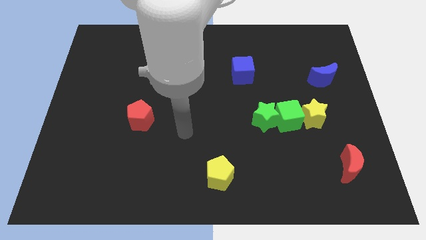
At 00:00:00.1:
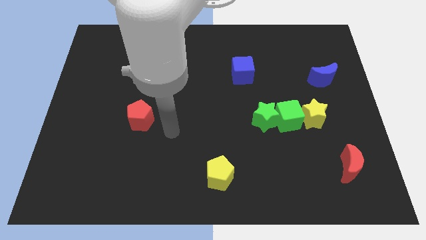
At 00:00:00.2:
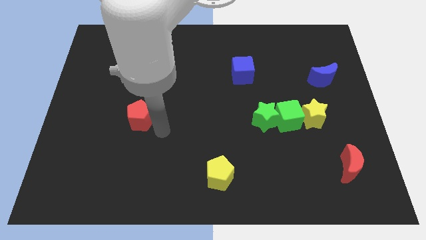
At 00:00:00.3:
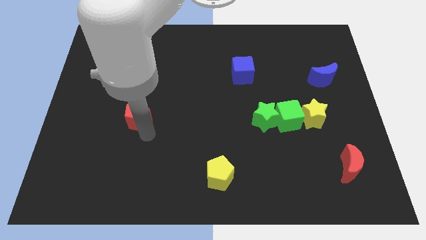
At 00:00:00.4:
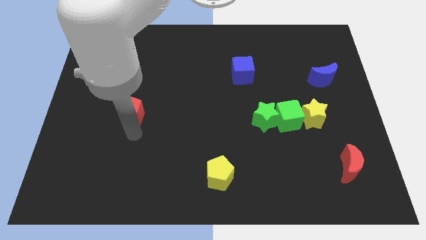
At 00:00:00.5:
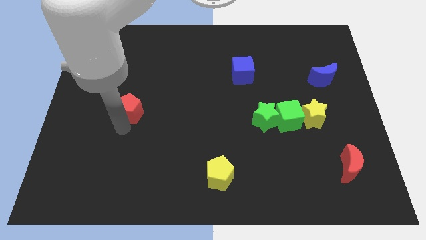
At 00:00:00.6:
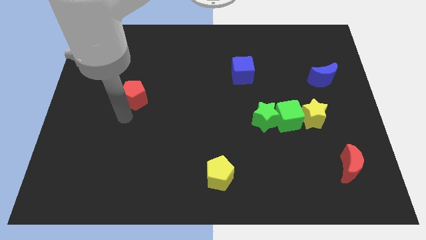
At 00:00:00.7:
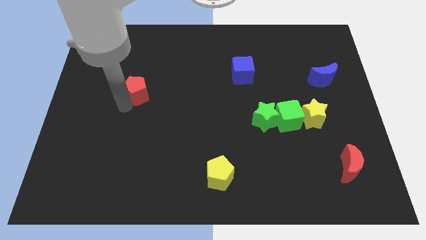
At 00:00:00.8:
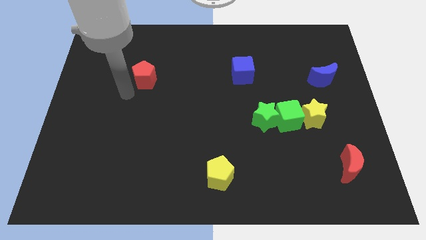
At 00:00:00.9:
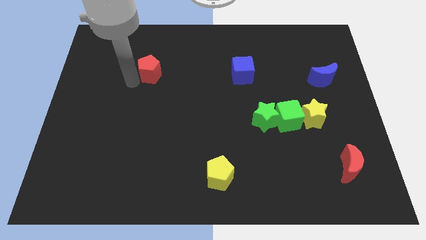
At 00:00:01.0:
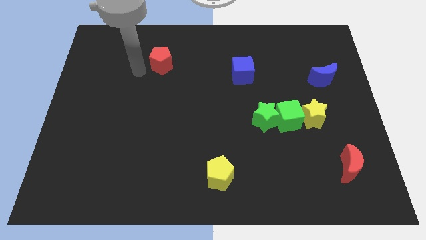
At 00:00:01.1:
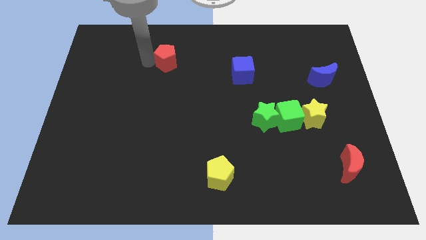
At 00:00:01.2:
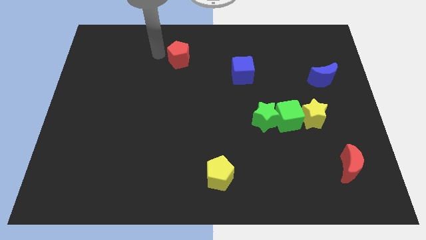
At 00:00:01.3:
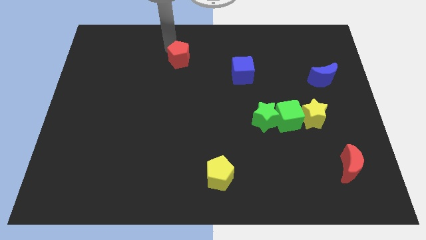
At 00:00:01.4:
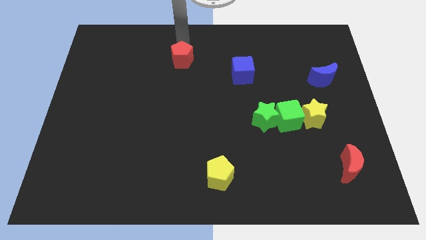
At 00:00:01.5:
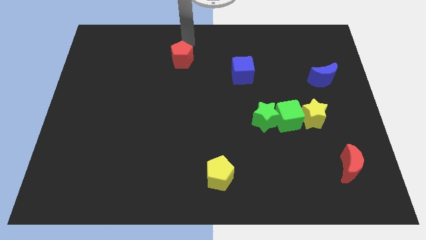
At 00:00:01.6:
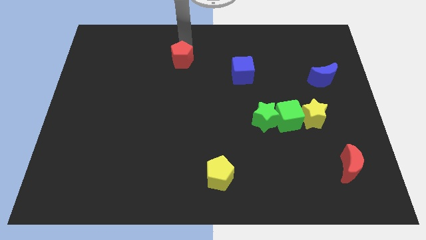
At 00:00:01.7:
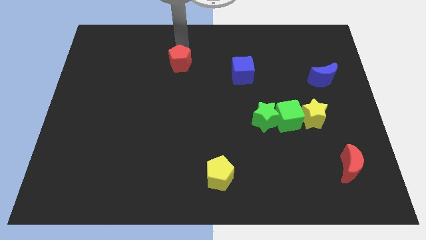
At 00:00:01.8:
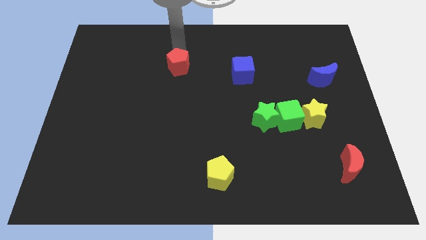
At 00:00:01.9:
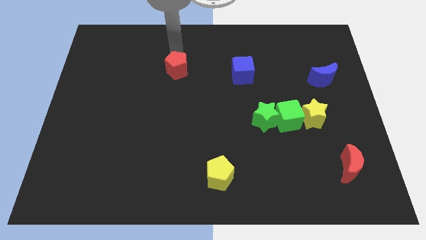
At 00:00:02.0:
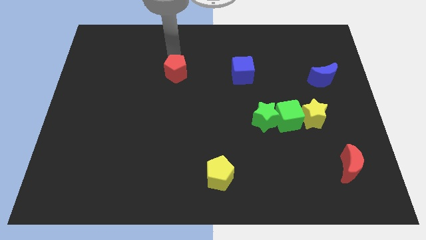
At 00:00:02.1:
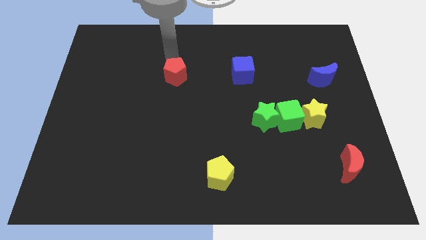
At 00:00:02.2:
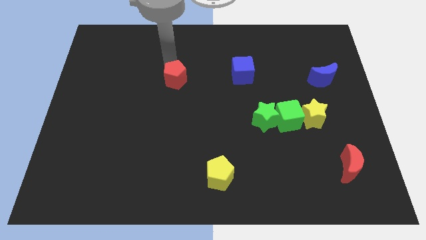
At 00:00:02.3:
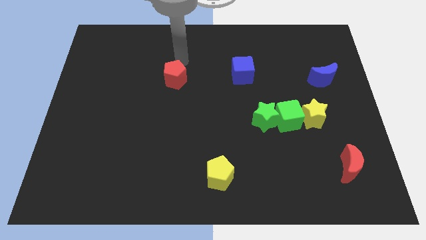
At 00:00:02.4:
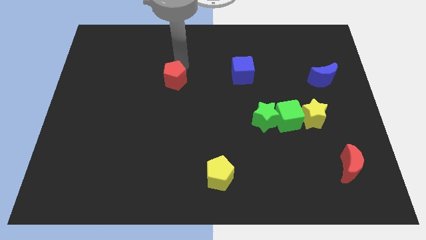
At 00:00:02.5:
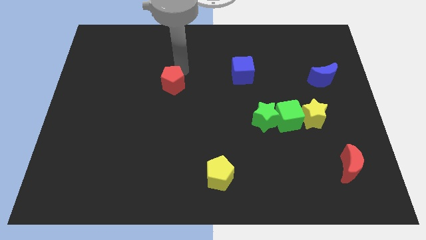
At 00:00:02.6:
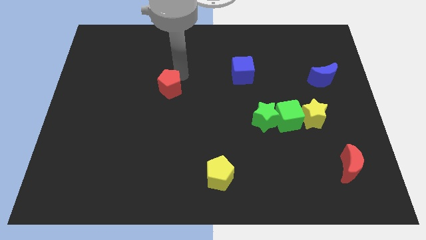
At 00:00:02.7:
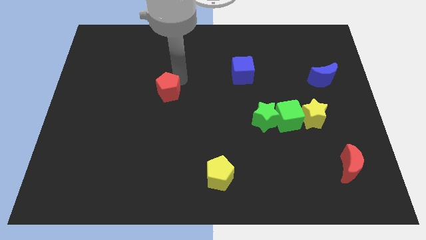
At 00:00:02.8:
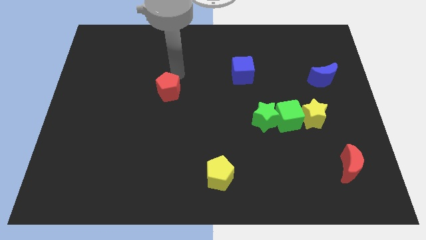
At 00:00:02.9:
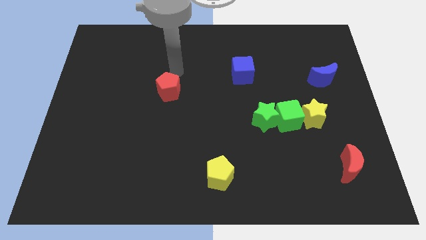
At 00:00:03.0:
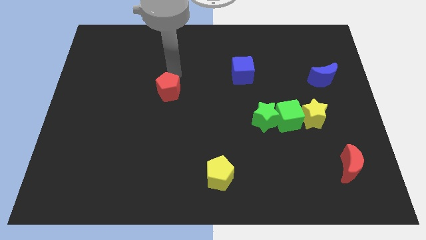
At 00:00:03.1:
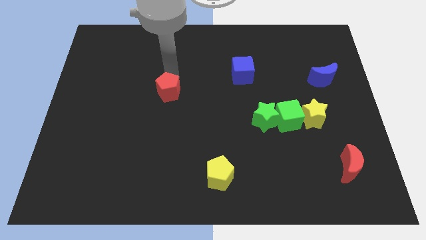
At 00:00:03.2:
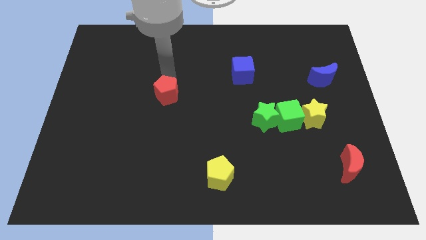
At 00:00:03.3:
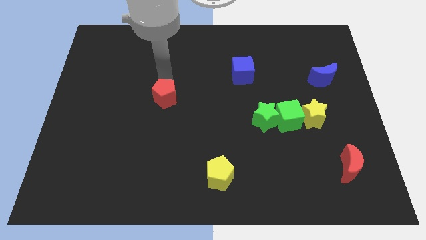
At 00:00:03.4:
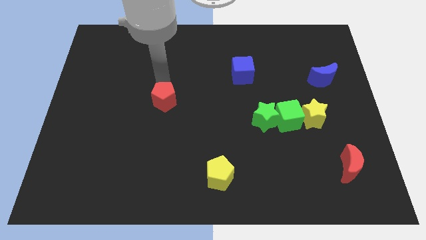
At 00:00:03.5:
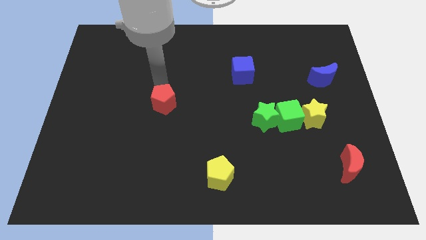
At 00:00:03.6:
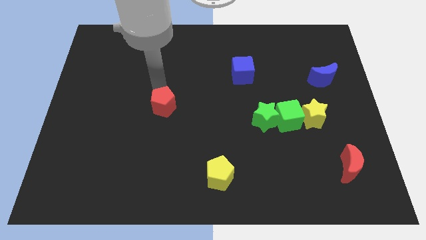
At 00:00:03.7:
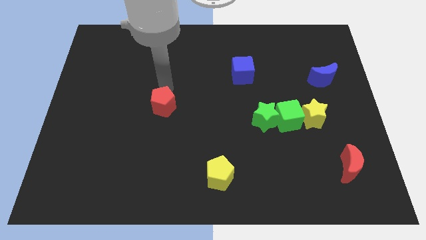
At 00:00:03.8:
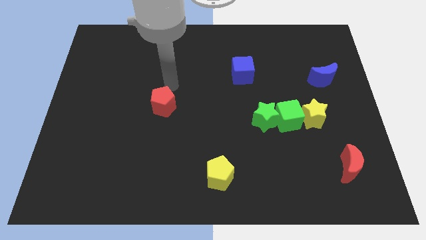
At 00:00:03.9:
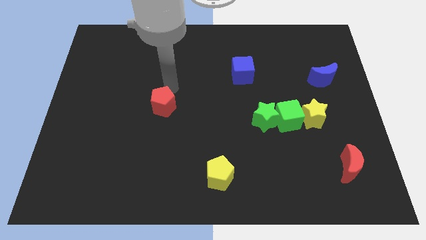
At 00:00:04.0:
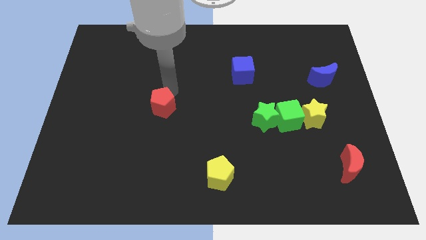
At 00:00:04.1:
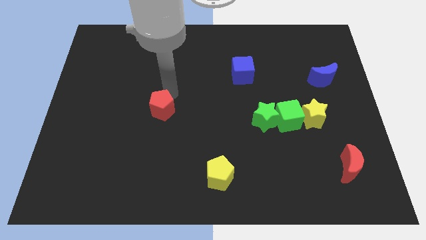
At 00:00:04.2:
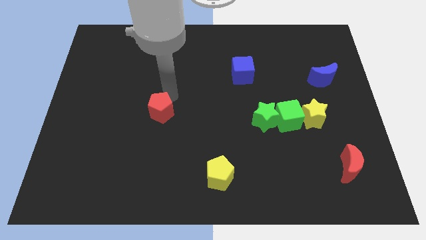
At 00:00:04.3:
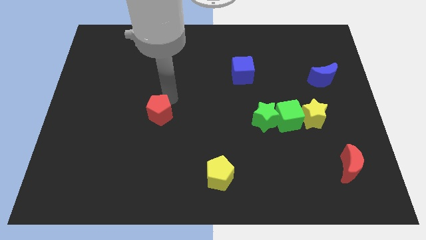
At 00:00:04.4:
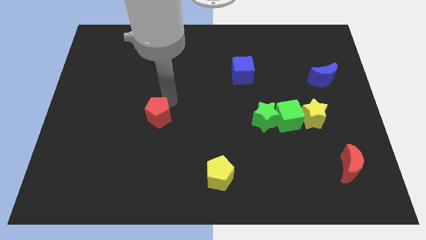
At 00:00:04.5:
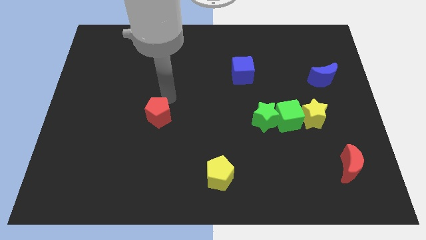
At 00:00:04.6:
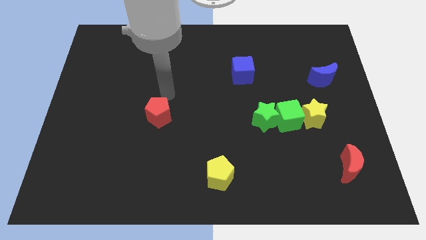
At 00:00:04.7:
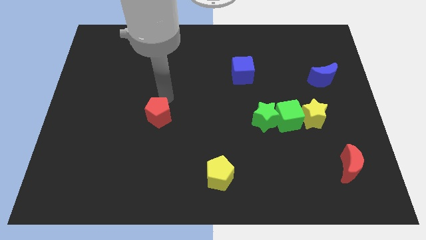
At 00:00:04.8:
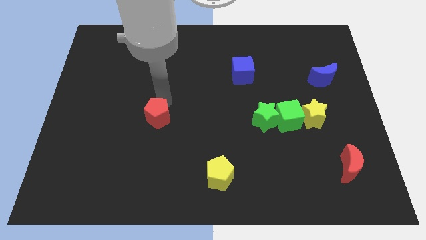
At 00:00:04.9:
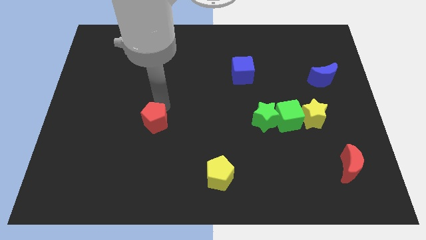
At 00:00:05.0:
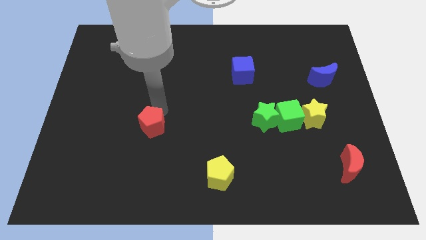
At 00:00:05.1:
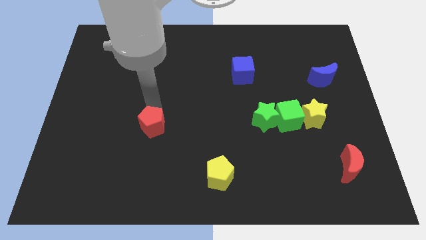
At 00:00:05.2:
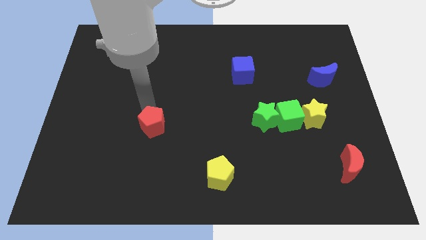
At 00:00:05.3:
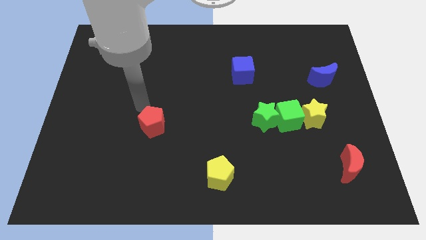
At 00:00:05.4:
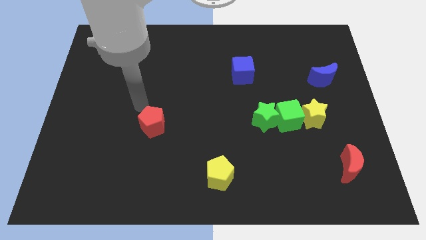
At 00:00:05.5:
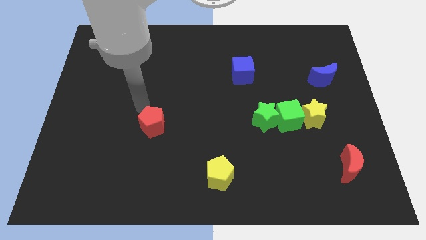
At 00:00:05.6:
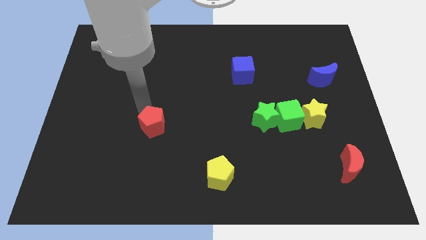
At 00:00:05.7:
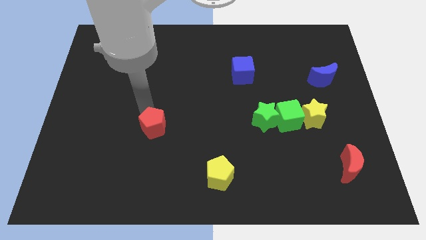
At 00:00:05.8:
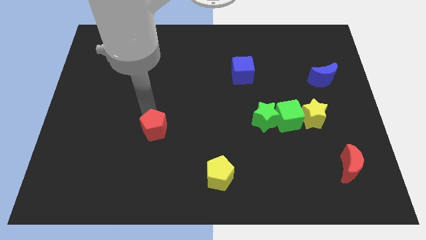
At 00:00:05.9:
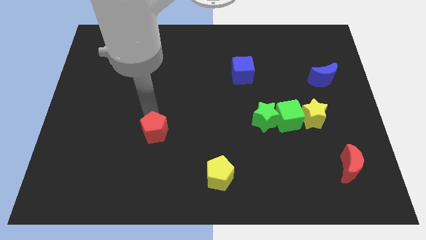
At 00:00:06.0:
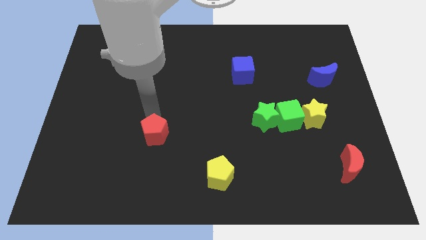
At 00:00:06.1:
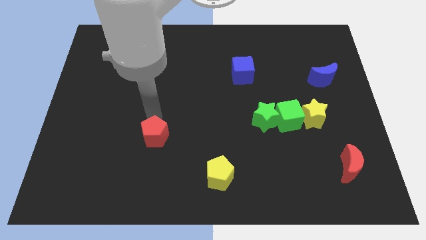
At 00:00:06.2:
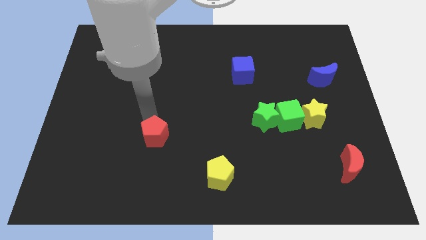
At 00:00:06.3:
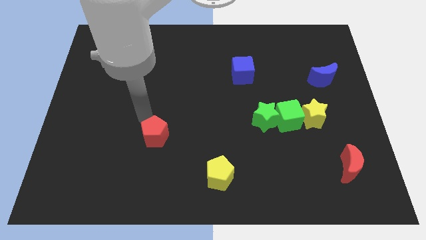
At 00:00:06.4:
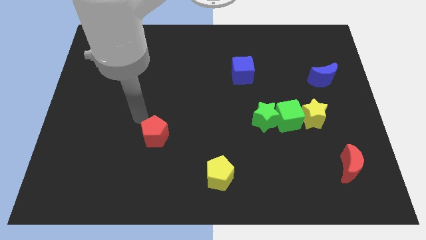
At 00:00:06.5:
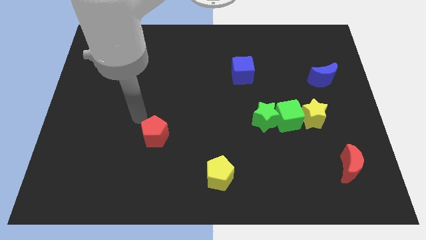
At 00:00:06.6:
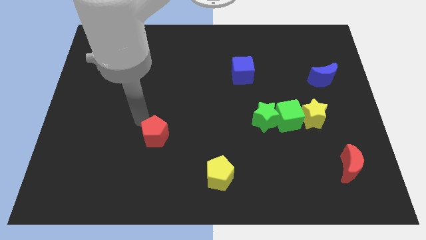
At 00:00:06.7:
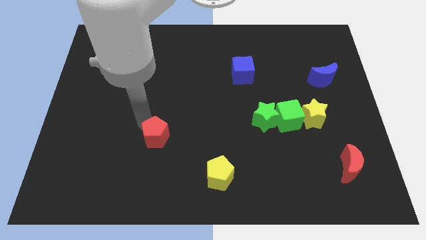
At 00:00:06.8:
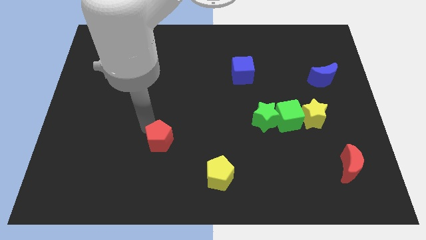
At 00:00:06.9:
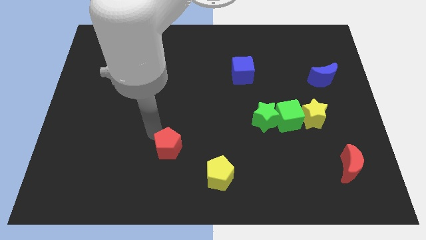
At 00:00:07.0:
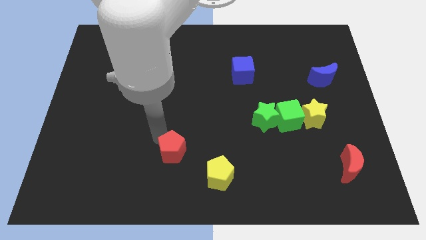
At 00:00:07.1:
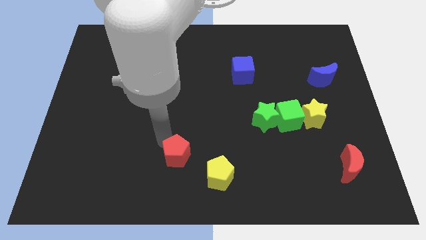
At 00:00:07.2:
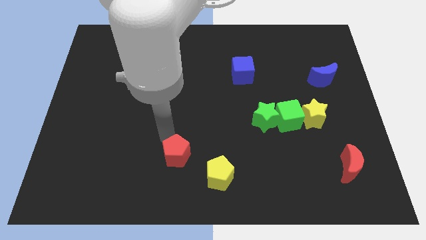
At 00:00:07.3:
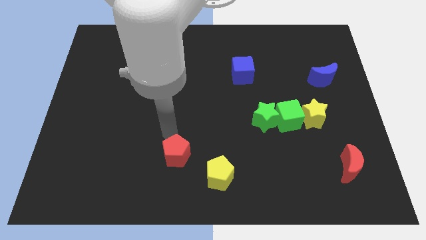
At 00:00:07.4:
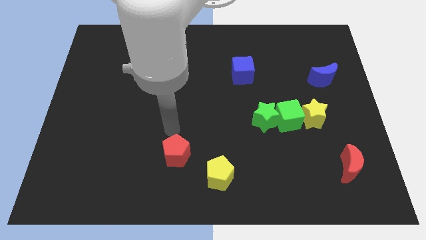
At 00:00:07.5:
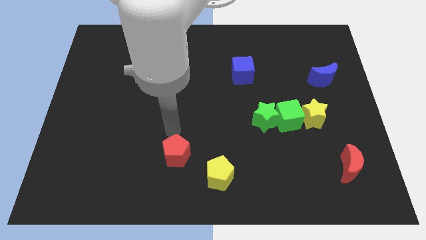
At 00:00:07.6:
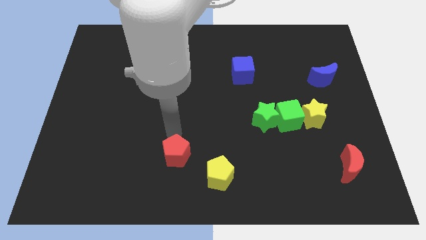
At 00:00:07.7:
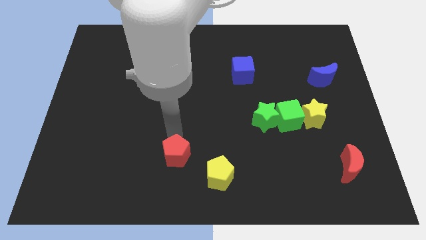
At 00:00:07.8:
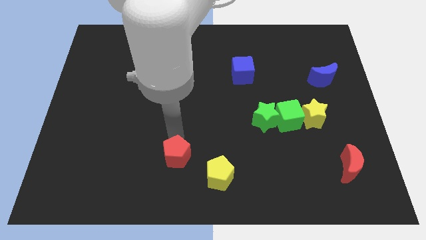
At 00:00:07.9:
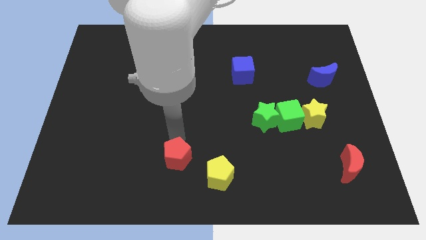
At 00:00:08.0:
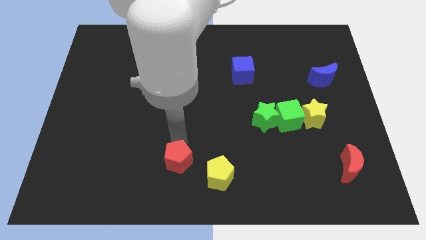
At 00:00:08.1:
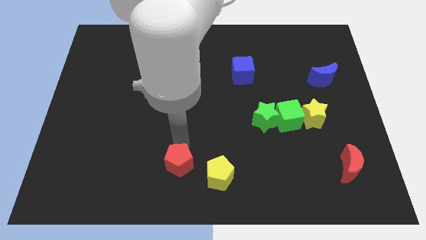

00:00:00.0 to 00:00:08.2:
push the red pentagon to the bottom
